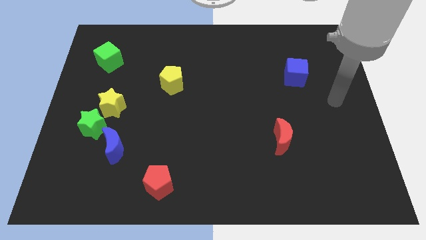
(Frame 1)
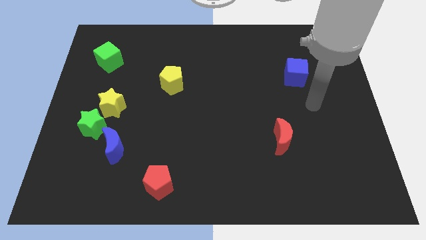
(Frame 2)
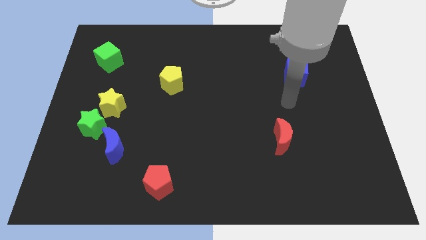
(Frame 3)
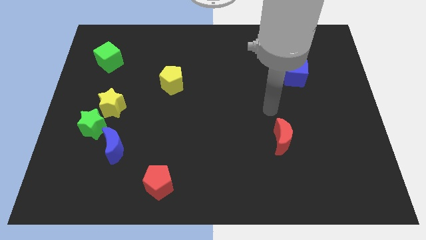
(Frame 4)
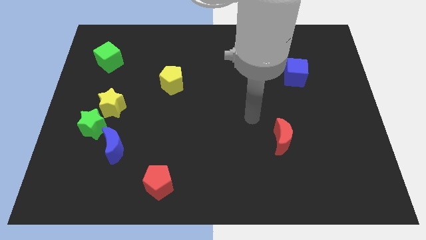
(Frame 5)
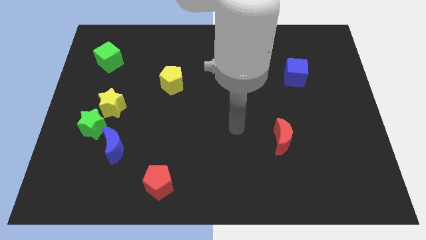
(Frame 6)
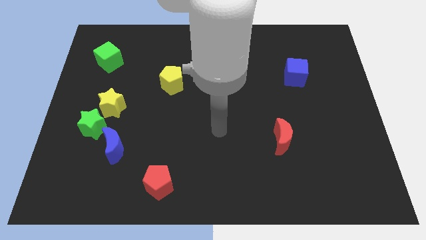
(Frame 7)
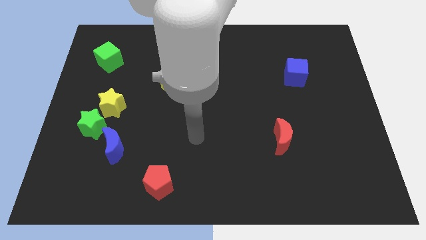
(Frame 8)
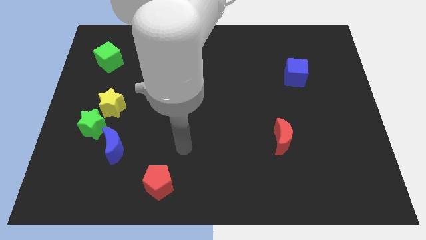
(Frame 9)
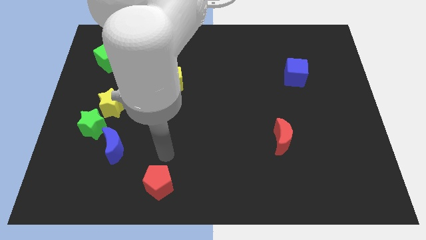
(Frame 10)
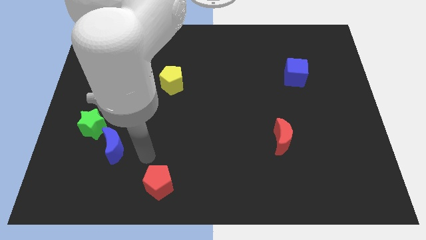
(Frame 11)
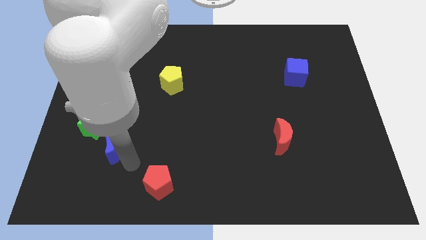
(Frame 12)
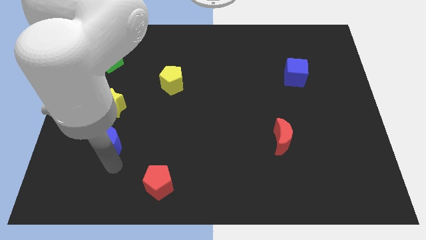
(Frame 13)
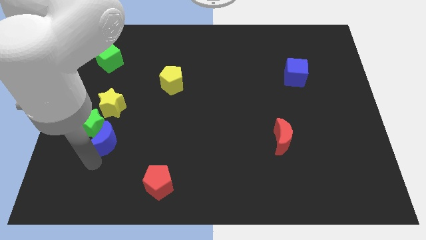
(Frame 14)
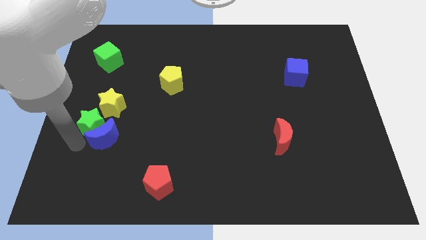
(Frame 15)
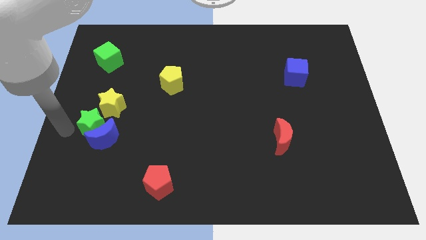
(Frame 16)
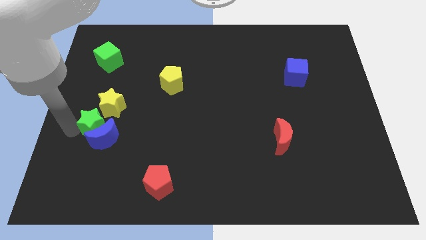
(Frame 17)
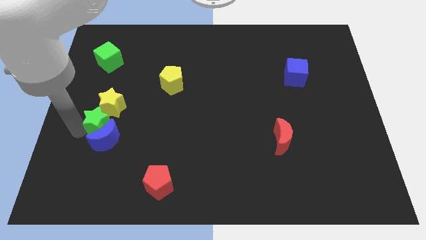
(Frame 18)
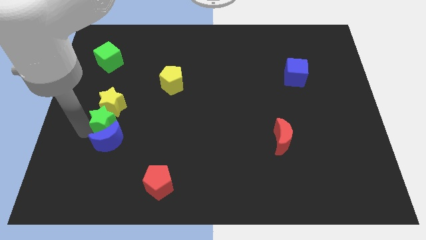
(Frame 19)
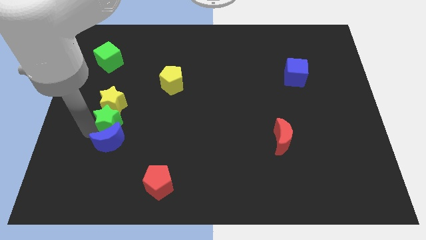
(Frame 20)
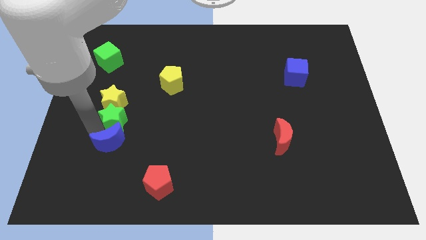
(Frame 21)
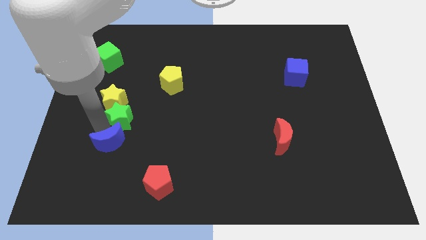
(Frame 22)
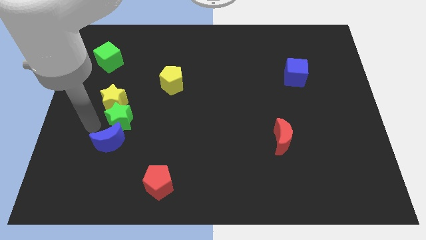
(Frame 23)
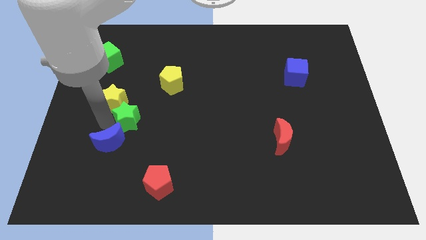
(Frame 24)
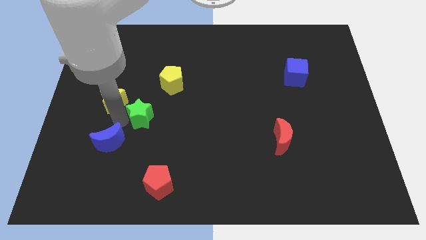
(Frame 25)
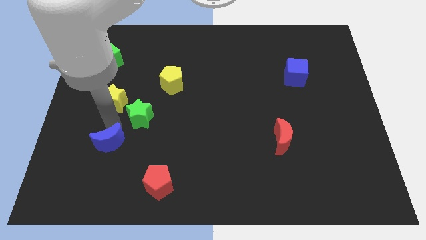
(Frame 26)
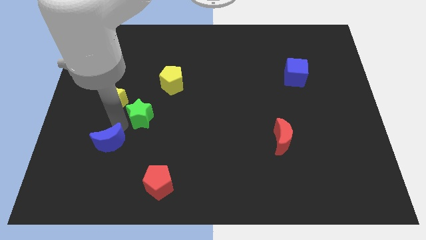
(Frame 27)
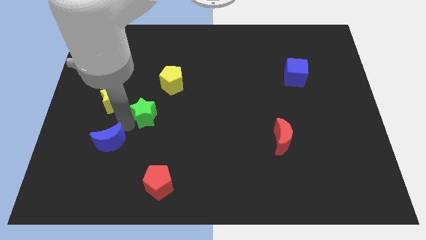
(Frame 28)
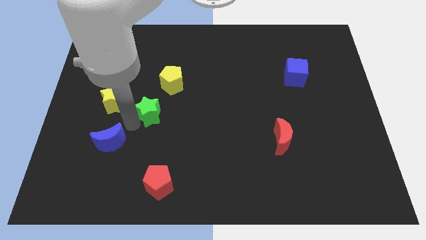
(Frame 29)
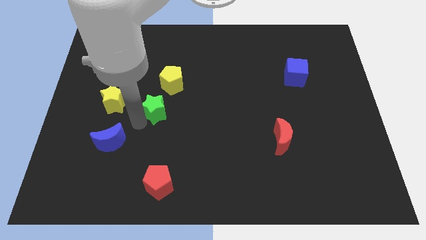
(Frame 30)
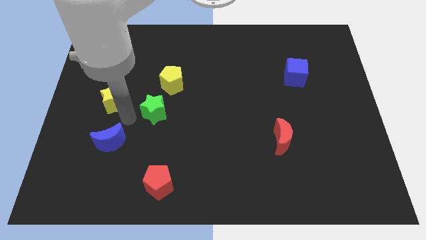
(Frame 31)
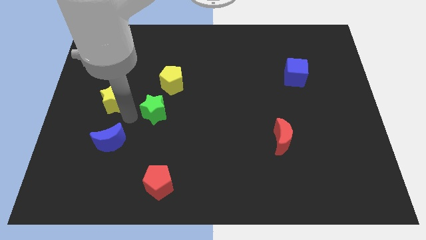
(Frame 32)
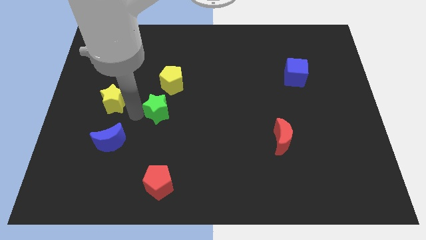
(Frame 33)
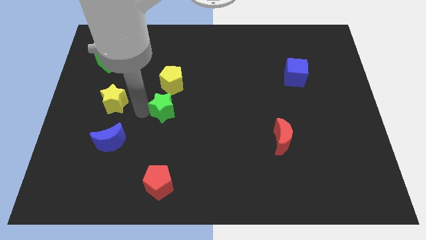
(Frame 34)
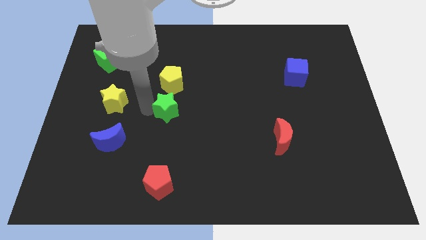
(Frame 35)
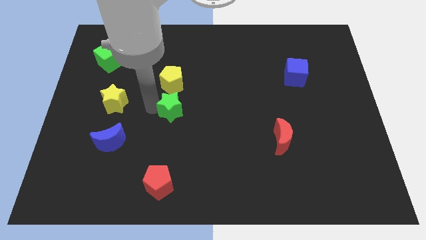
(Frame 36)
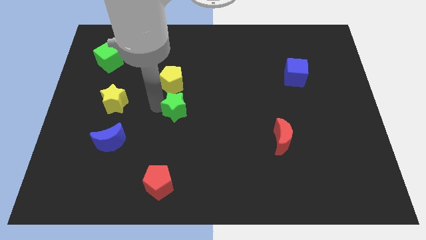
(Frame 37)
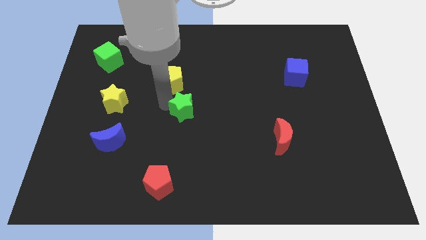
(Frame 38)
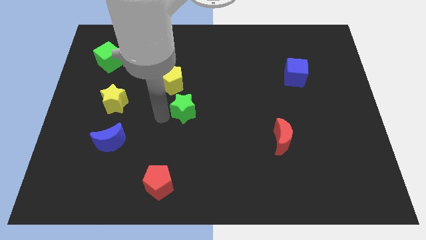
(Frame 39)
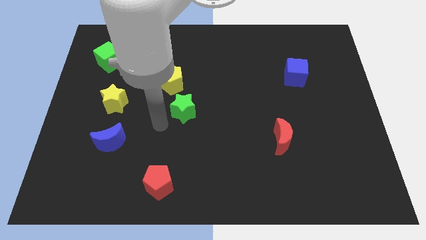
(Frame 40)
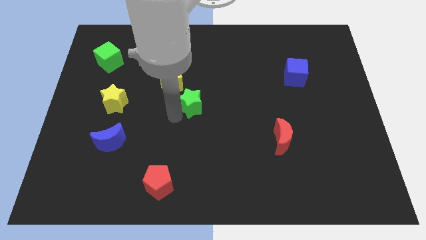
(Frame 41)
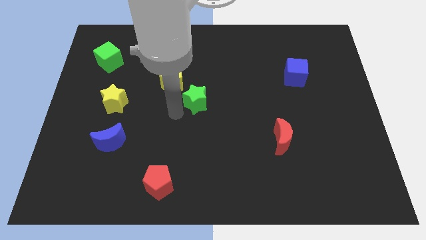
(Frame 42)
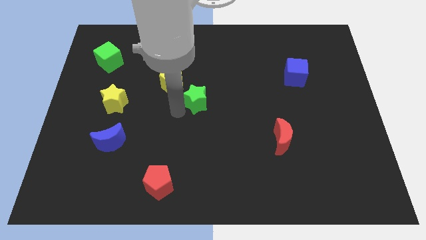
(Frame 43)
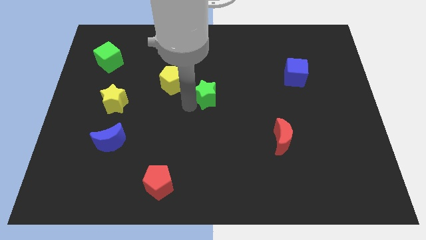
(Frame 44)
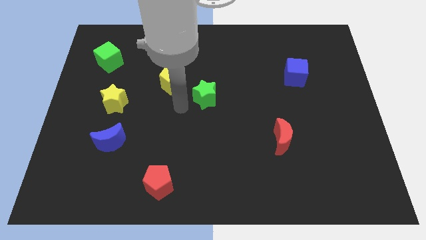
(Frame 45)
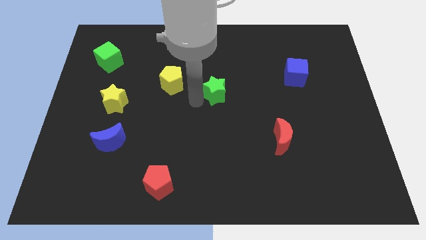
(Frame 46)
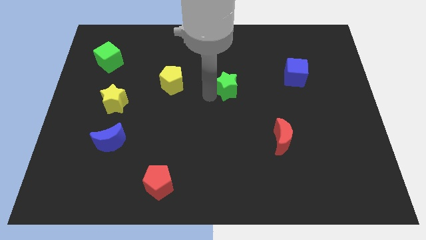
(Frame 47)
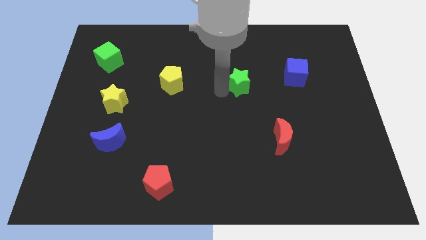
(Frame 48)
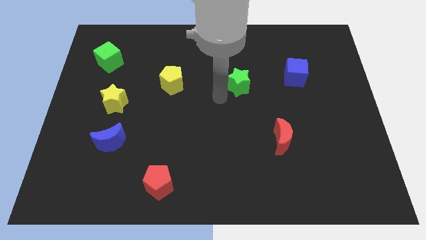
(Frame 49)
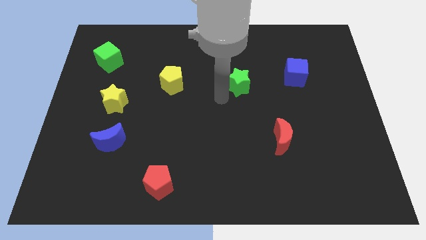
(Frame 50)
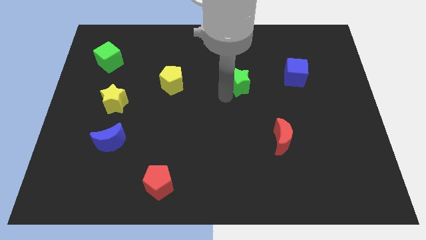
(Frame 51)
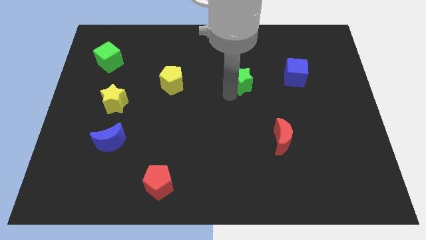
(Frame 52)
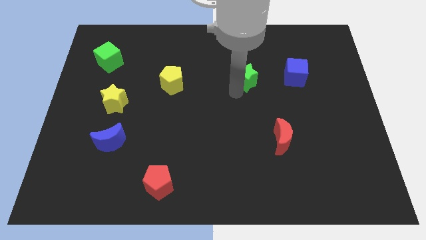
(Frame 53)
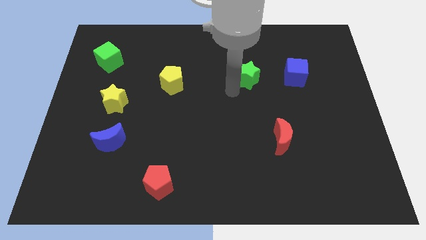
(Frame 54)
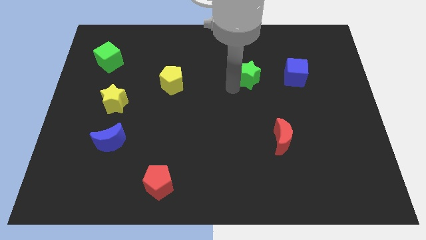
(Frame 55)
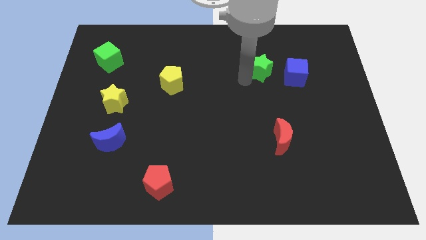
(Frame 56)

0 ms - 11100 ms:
slide the green star to the top left of the blue cube
